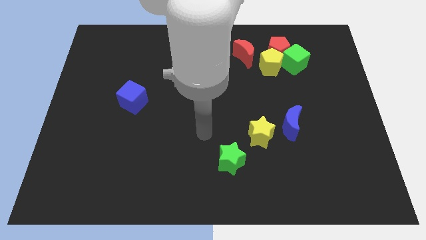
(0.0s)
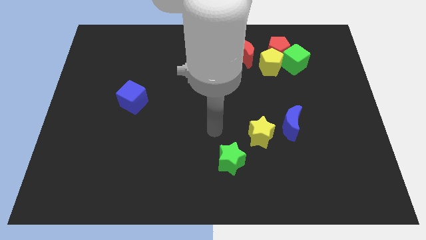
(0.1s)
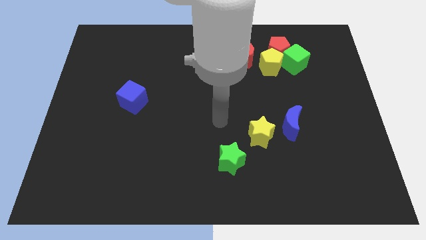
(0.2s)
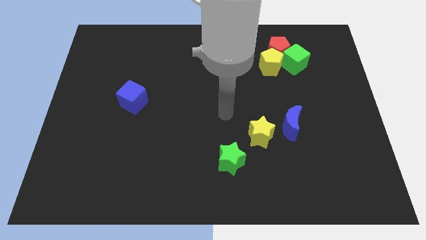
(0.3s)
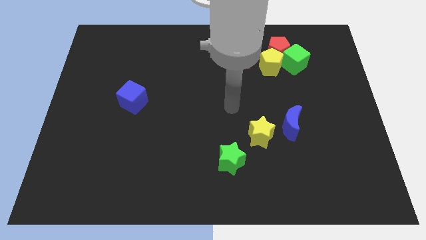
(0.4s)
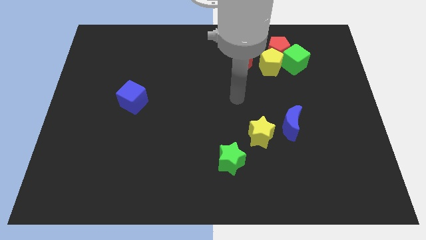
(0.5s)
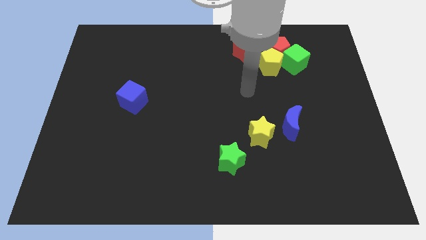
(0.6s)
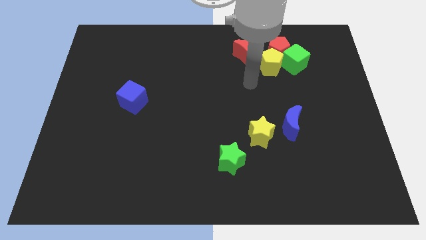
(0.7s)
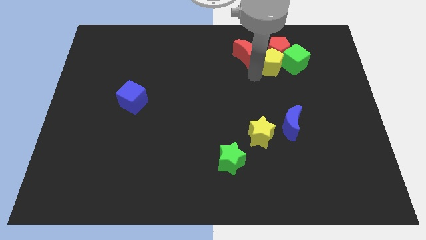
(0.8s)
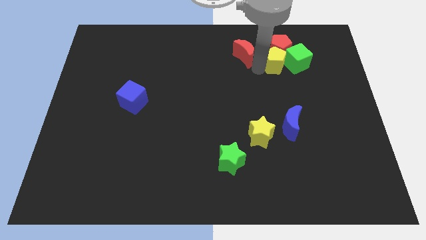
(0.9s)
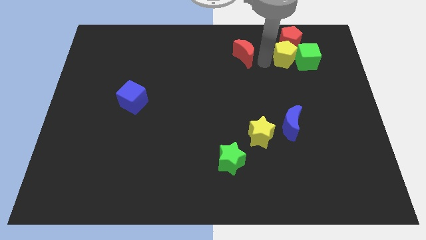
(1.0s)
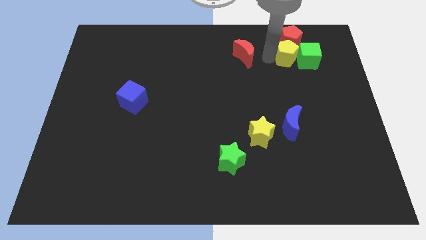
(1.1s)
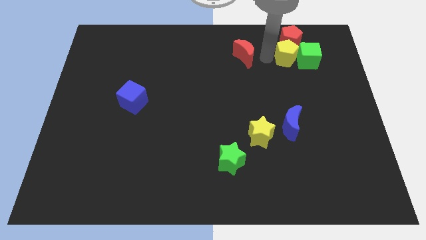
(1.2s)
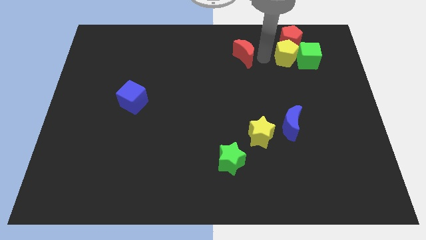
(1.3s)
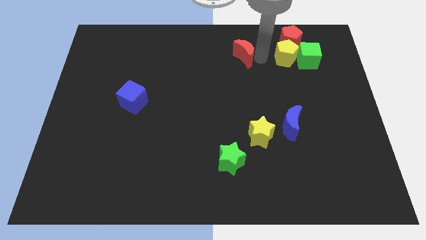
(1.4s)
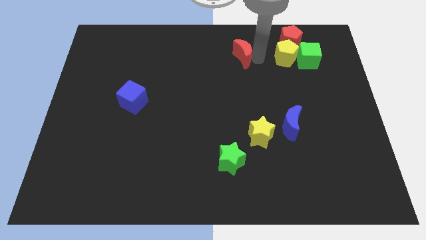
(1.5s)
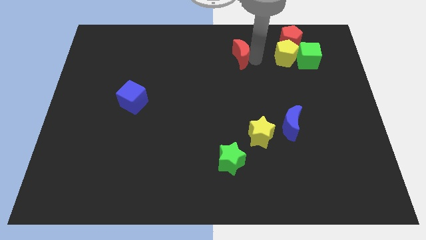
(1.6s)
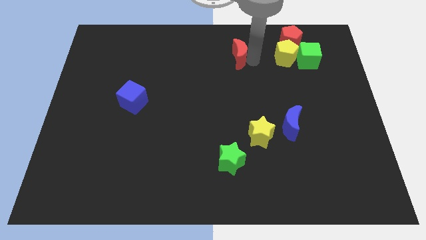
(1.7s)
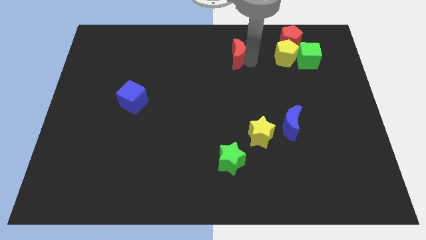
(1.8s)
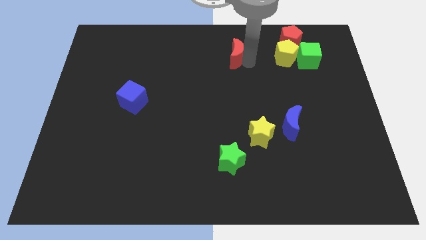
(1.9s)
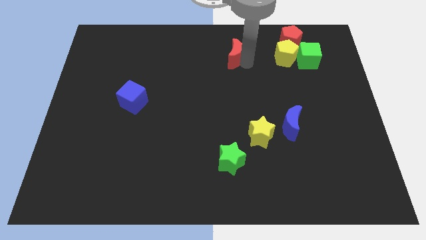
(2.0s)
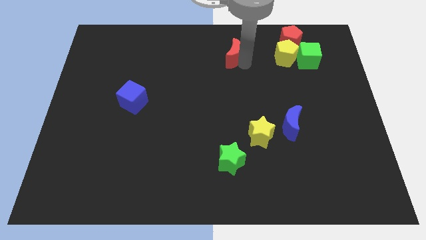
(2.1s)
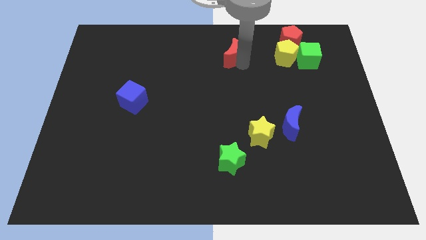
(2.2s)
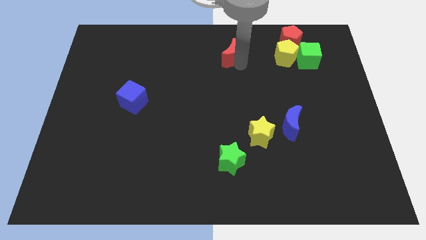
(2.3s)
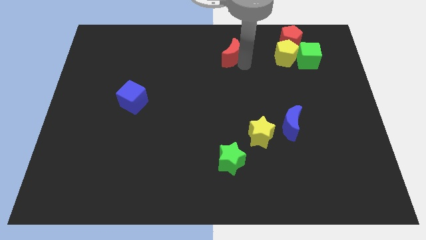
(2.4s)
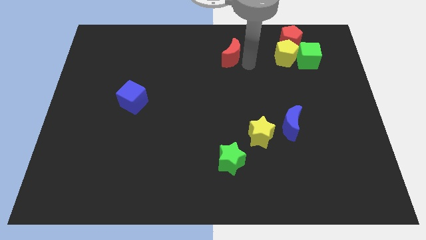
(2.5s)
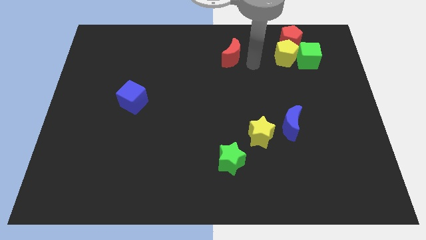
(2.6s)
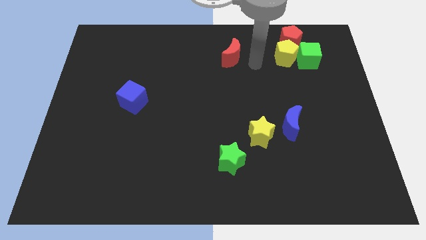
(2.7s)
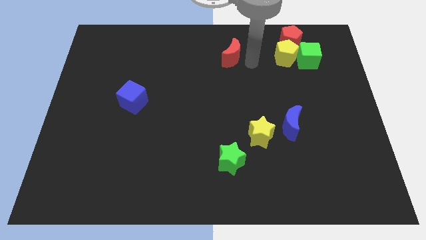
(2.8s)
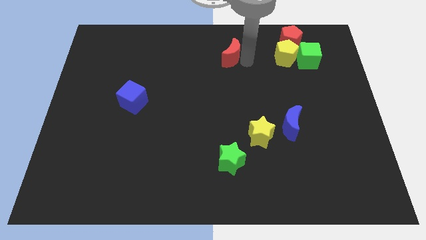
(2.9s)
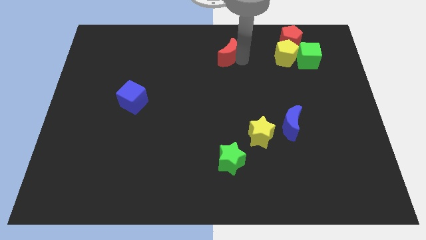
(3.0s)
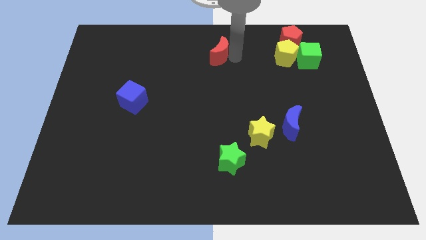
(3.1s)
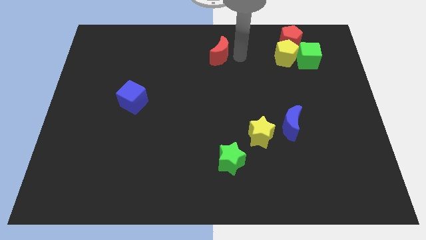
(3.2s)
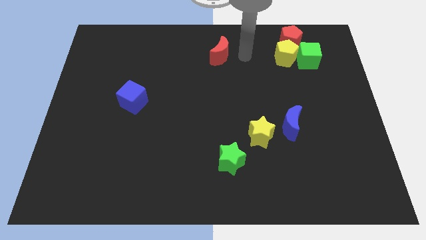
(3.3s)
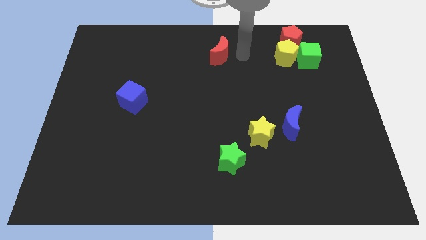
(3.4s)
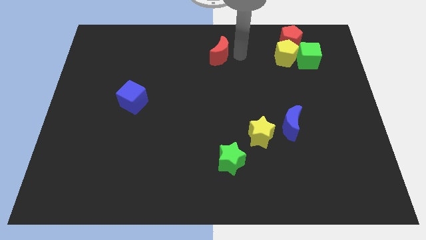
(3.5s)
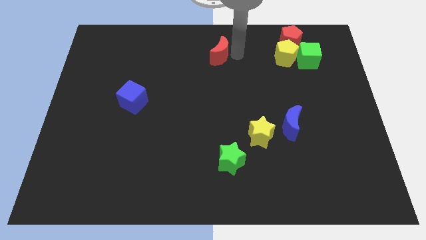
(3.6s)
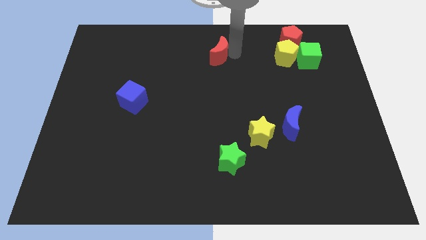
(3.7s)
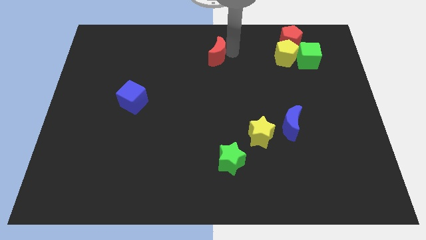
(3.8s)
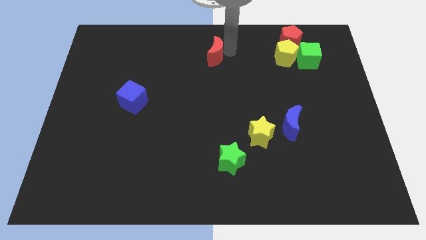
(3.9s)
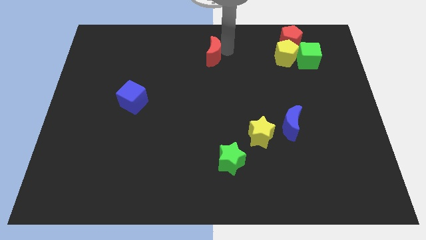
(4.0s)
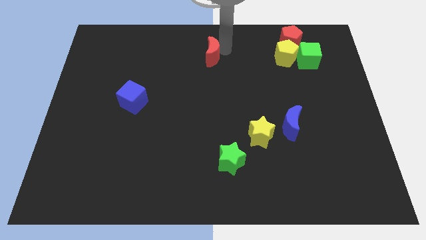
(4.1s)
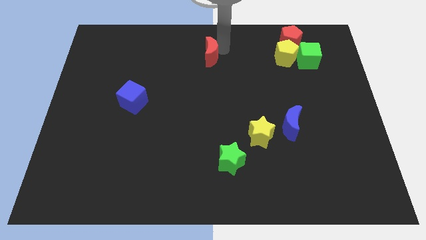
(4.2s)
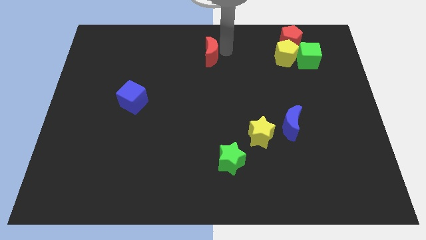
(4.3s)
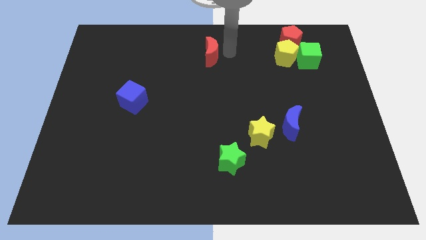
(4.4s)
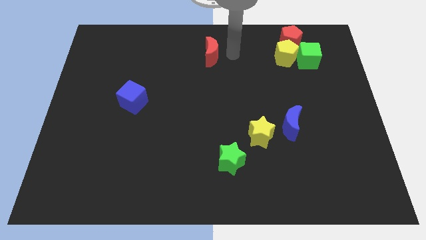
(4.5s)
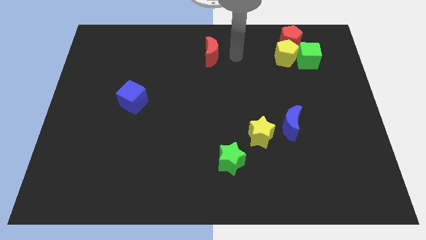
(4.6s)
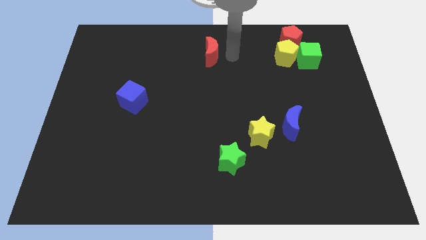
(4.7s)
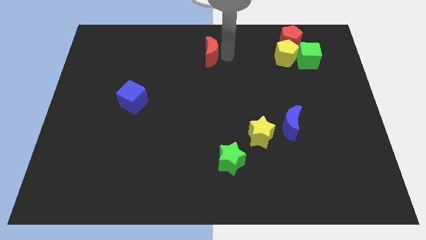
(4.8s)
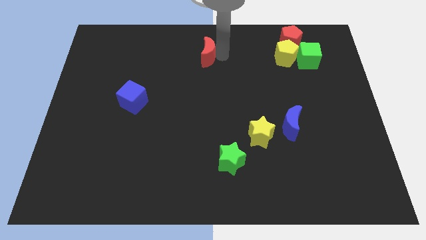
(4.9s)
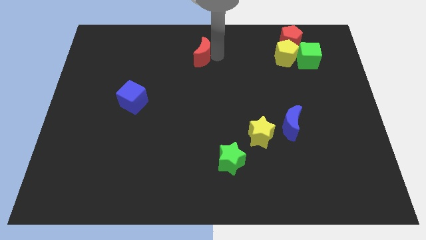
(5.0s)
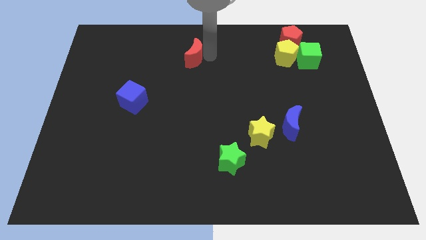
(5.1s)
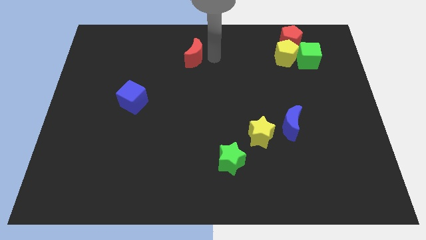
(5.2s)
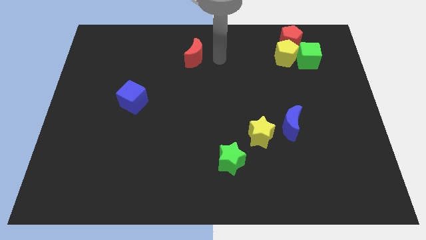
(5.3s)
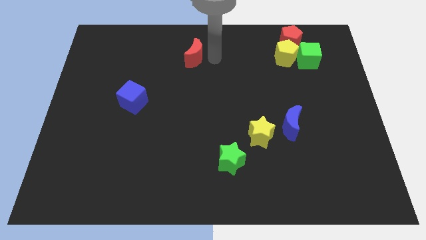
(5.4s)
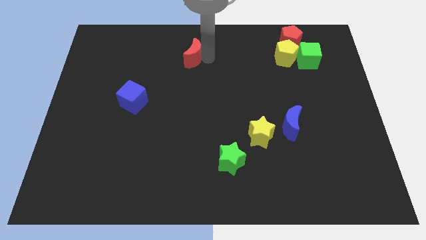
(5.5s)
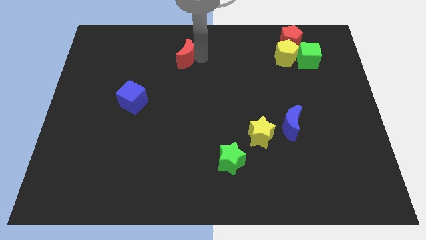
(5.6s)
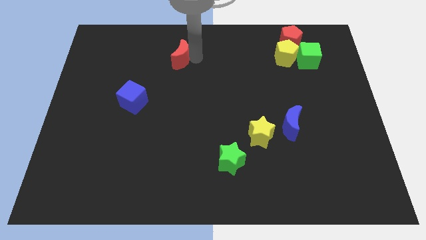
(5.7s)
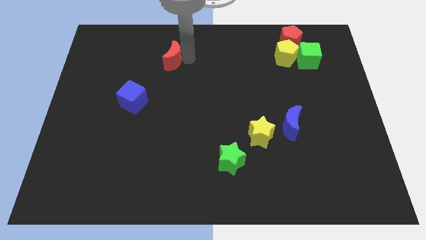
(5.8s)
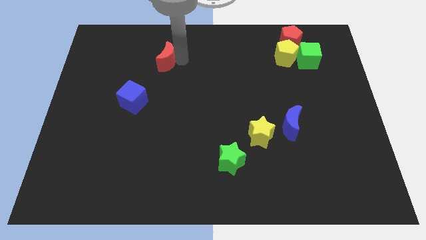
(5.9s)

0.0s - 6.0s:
push the red moon to the left

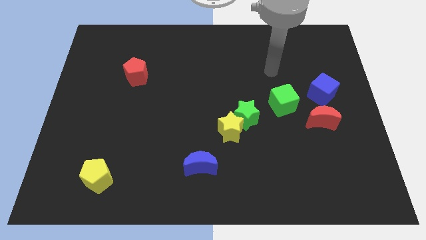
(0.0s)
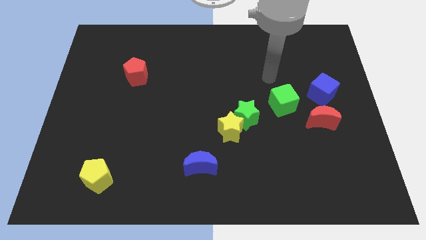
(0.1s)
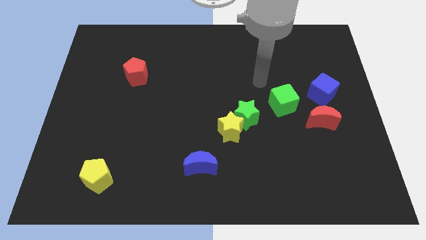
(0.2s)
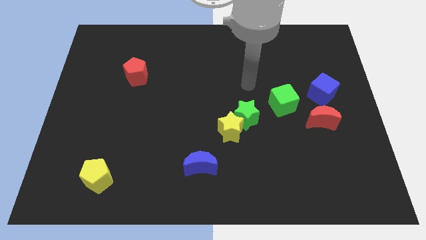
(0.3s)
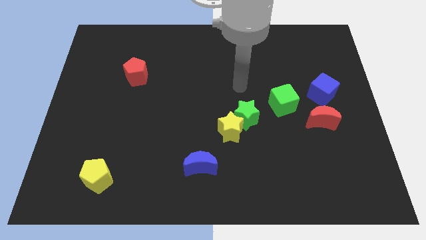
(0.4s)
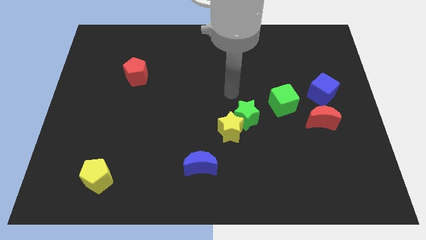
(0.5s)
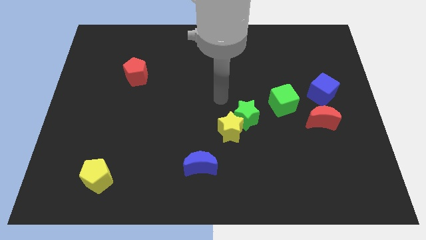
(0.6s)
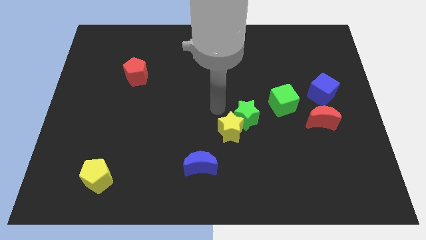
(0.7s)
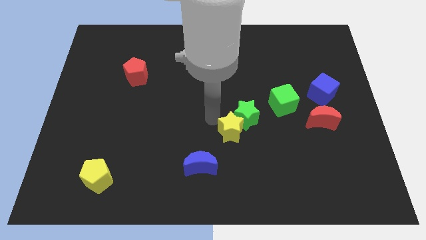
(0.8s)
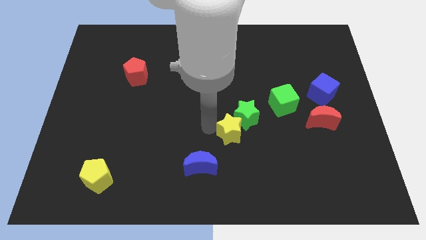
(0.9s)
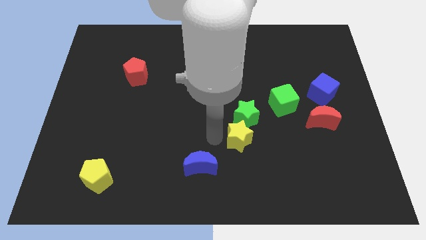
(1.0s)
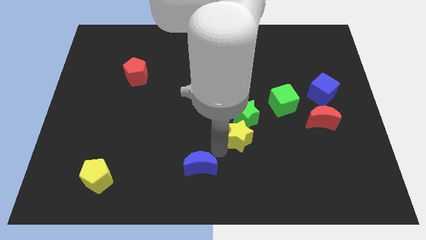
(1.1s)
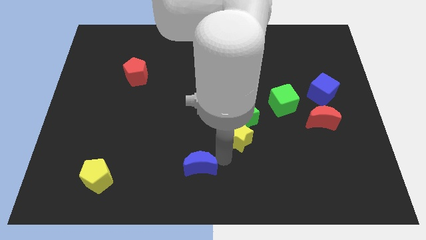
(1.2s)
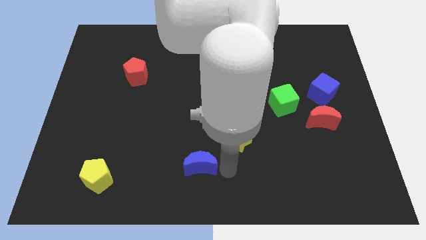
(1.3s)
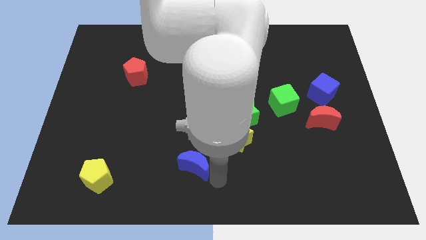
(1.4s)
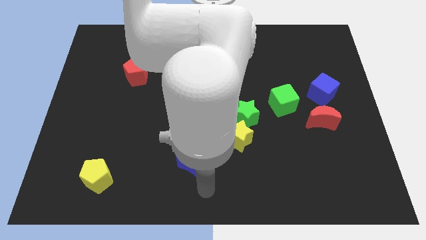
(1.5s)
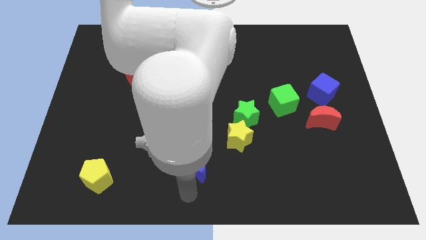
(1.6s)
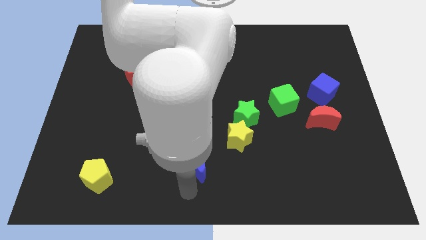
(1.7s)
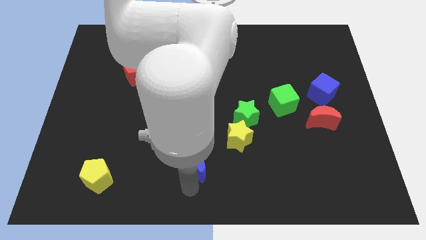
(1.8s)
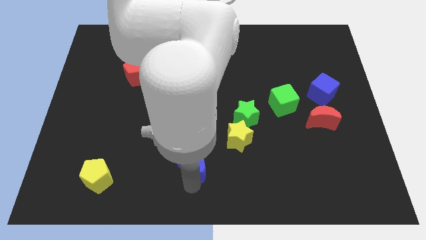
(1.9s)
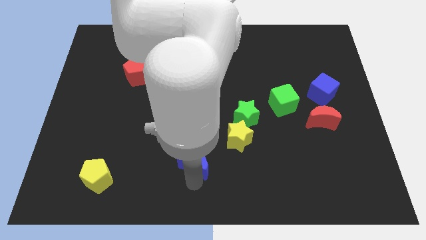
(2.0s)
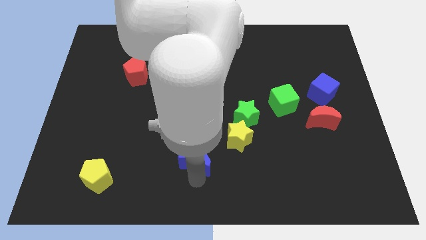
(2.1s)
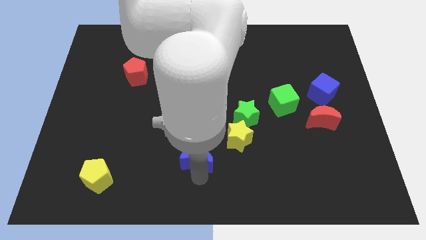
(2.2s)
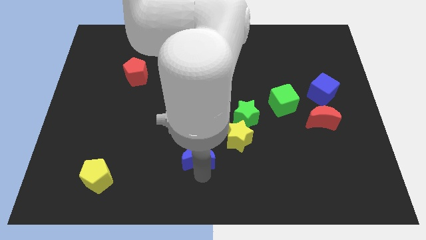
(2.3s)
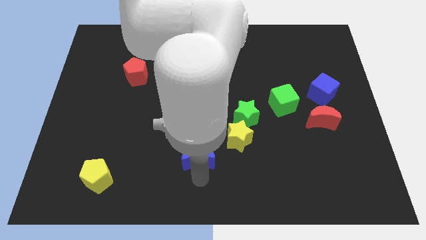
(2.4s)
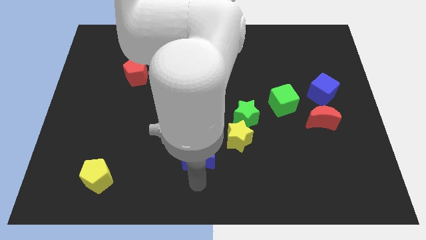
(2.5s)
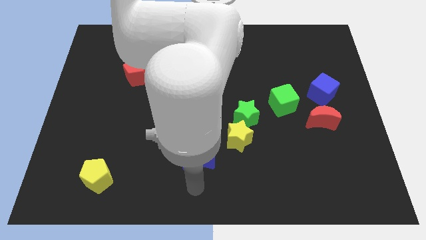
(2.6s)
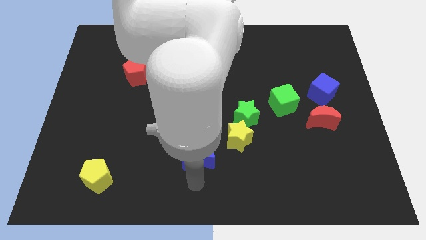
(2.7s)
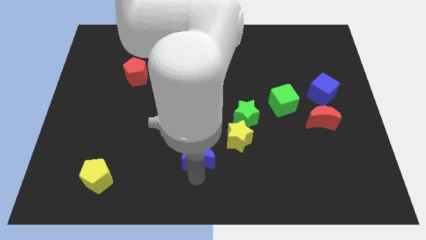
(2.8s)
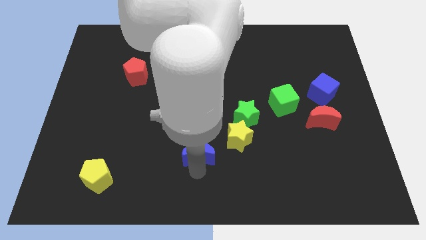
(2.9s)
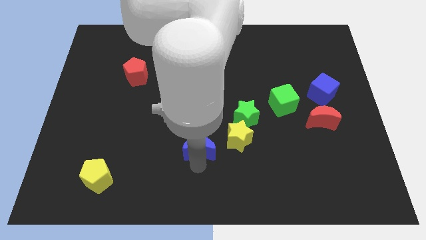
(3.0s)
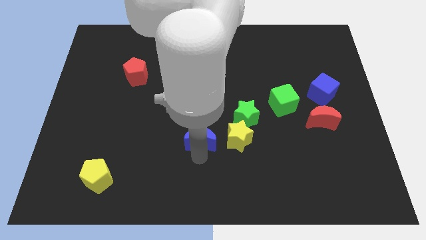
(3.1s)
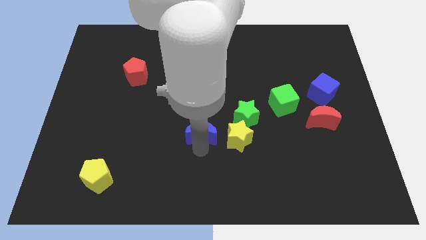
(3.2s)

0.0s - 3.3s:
push the blue moon upwards somewhat
